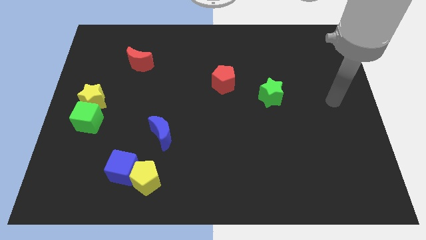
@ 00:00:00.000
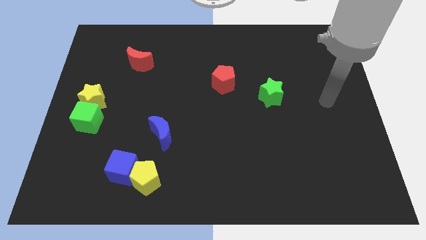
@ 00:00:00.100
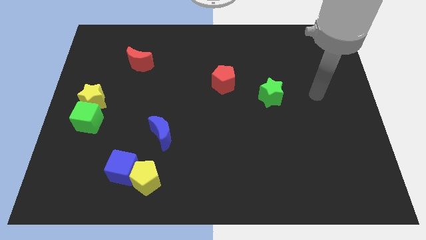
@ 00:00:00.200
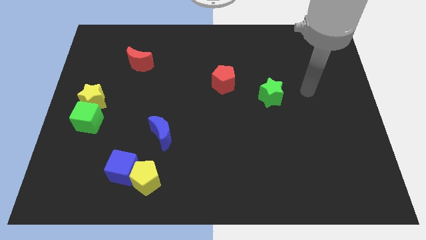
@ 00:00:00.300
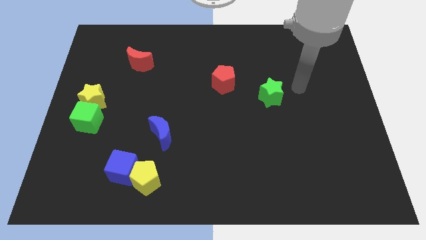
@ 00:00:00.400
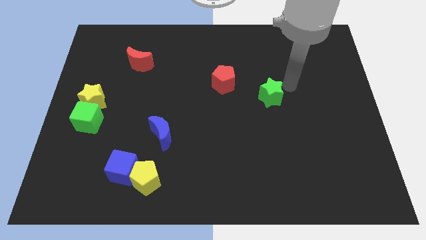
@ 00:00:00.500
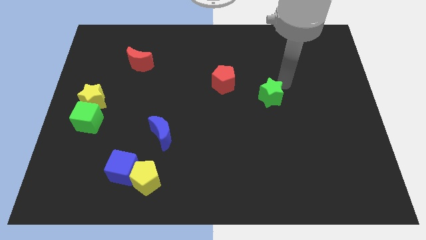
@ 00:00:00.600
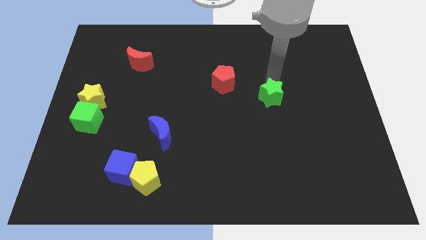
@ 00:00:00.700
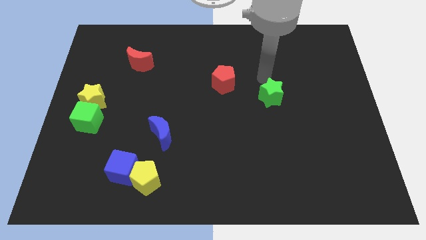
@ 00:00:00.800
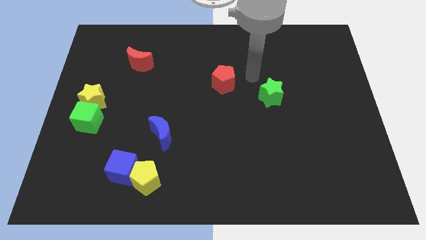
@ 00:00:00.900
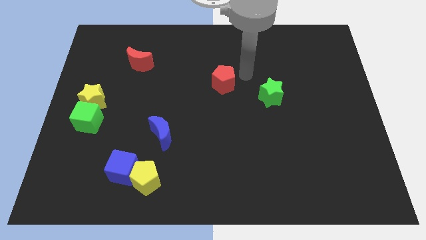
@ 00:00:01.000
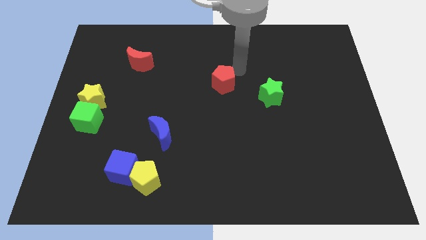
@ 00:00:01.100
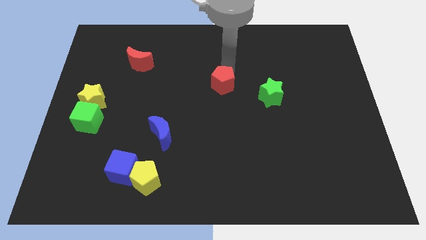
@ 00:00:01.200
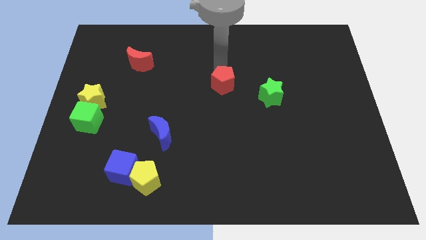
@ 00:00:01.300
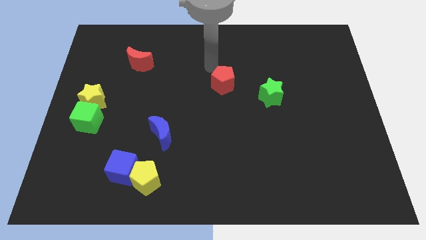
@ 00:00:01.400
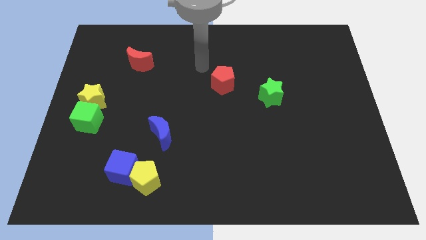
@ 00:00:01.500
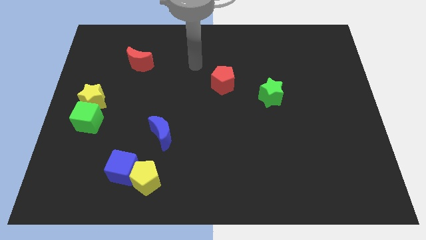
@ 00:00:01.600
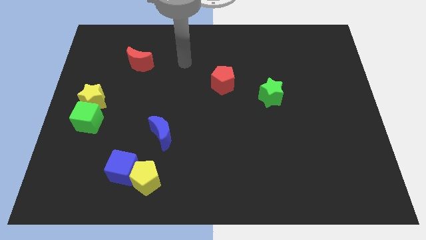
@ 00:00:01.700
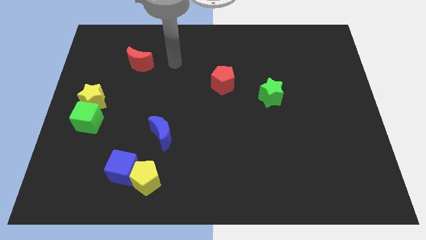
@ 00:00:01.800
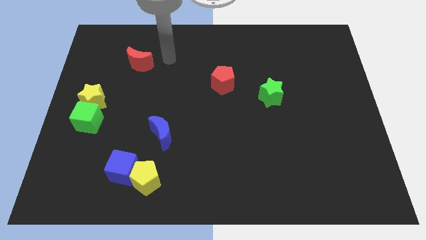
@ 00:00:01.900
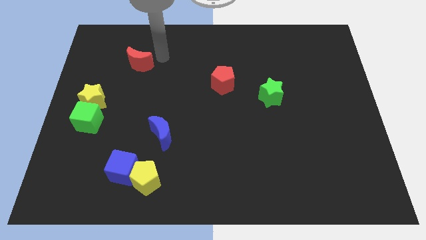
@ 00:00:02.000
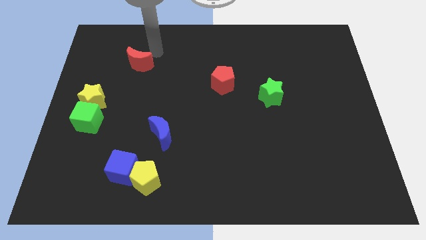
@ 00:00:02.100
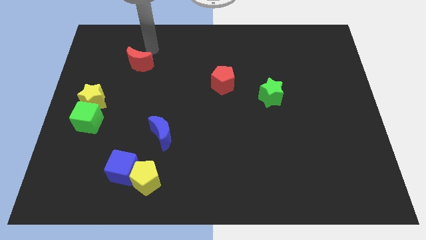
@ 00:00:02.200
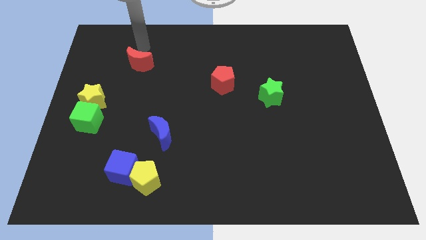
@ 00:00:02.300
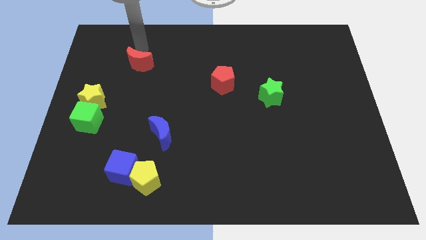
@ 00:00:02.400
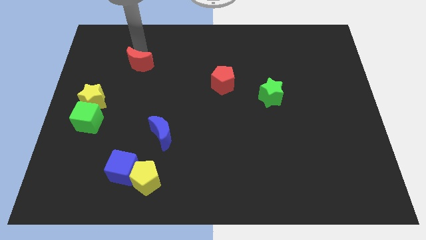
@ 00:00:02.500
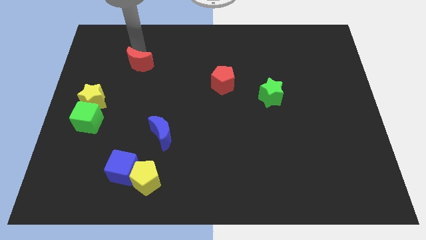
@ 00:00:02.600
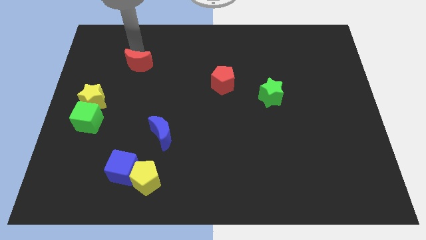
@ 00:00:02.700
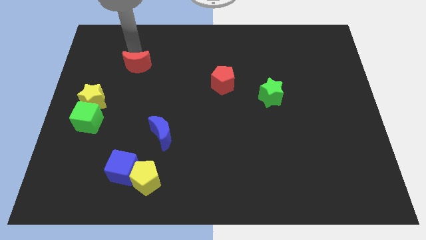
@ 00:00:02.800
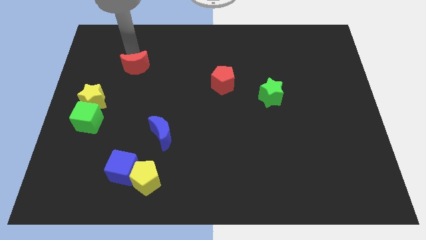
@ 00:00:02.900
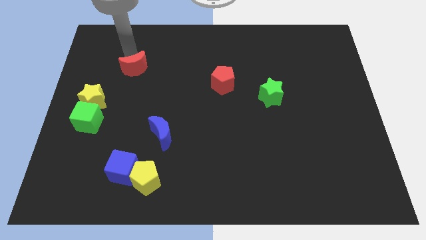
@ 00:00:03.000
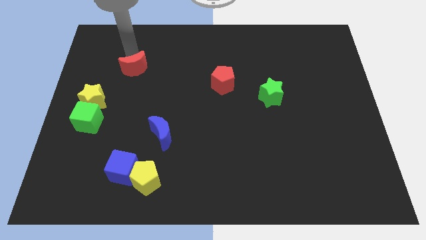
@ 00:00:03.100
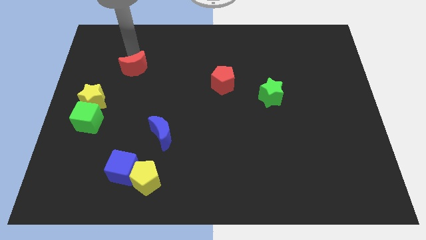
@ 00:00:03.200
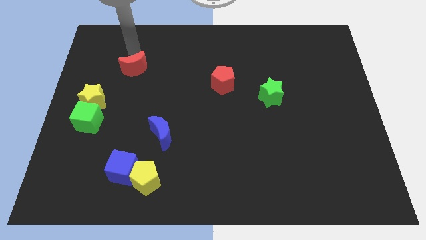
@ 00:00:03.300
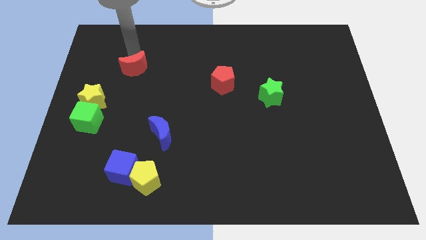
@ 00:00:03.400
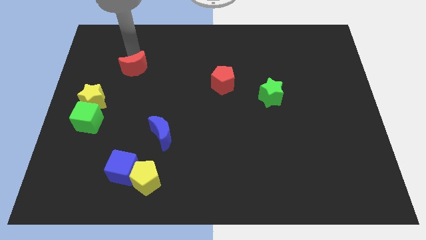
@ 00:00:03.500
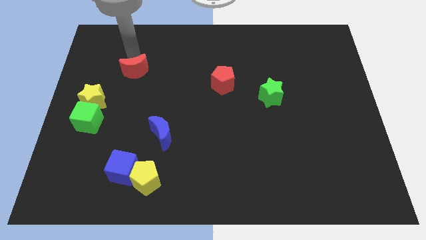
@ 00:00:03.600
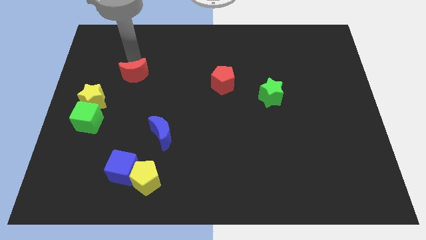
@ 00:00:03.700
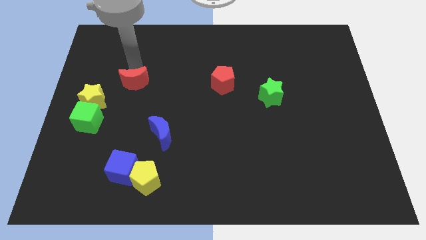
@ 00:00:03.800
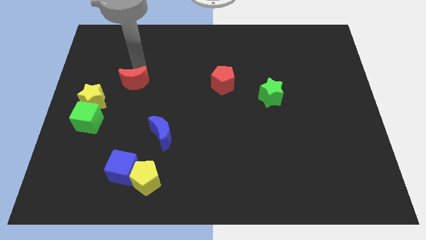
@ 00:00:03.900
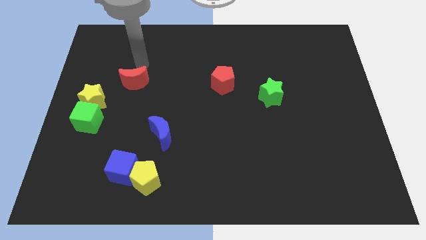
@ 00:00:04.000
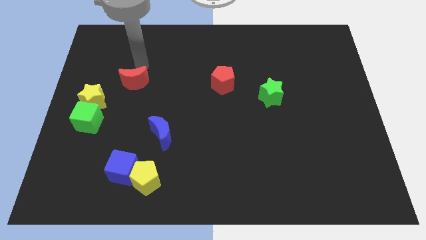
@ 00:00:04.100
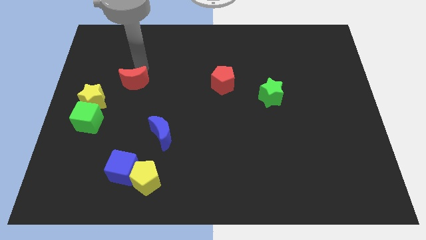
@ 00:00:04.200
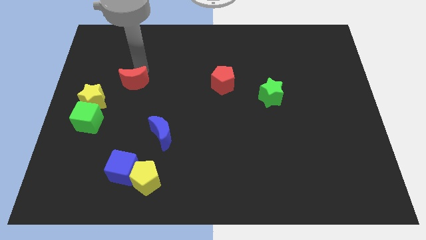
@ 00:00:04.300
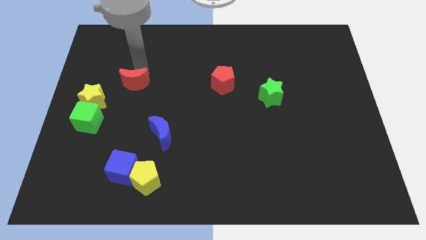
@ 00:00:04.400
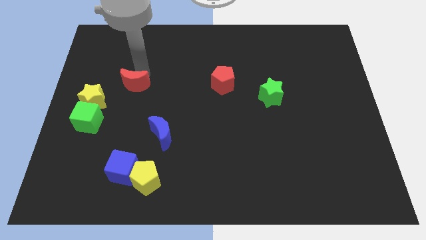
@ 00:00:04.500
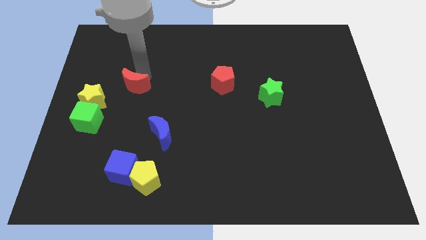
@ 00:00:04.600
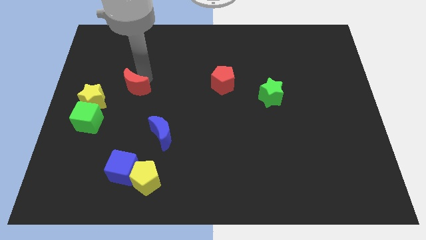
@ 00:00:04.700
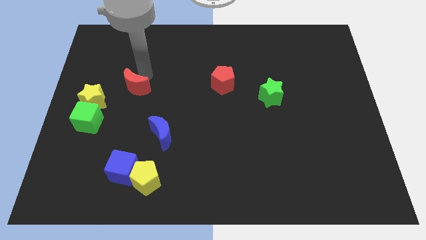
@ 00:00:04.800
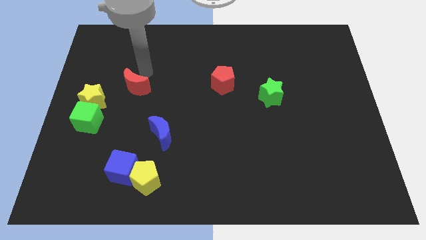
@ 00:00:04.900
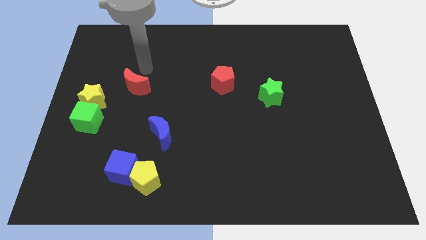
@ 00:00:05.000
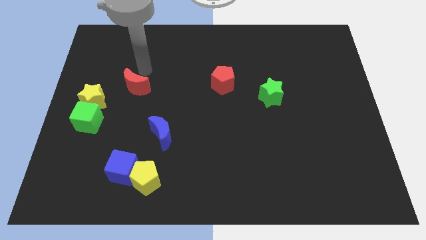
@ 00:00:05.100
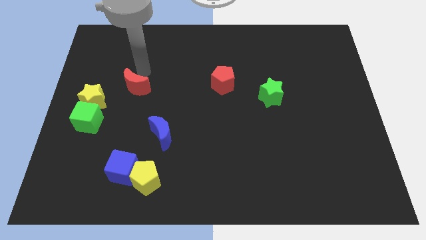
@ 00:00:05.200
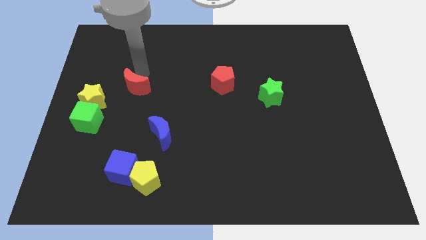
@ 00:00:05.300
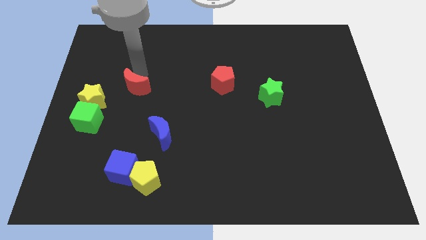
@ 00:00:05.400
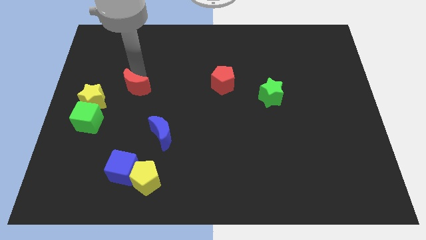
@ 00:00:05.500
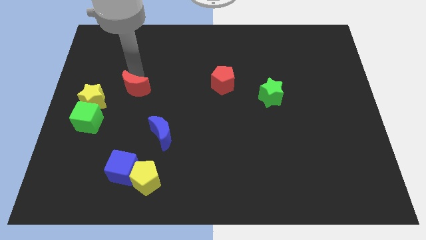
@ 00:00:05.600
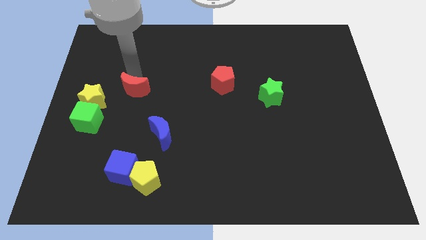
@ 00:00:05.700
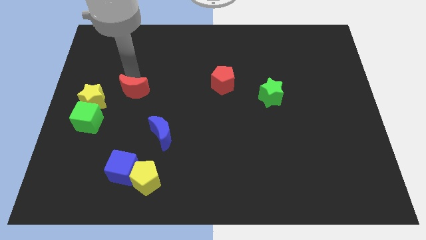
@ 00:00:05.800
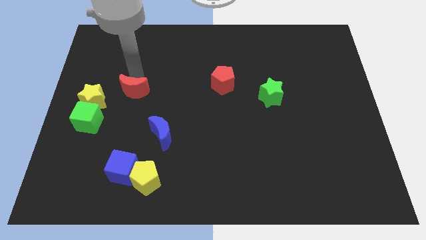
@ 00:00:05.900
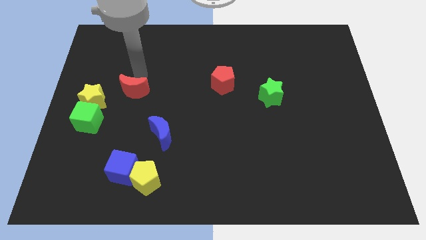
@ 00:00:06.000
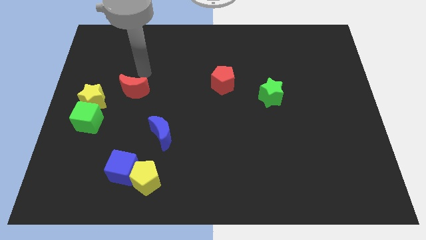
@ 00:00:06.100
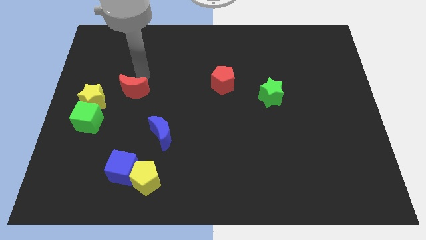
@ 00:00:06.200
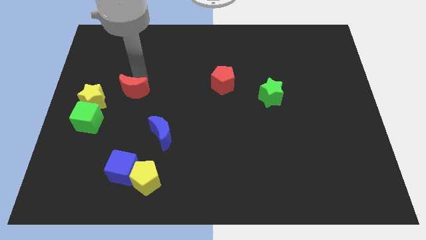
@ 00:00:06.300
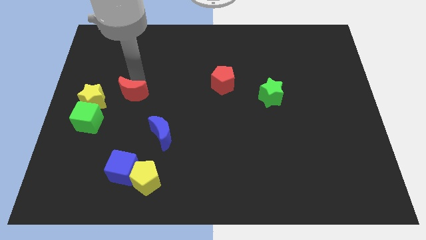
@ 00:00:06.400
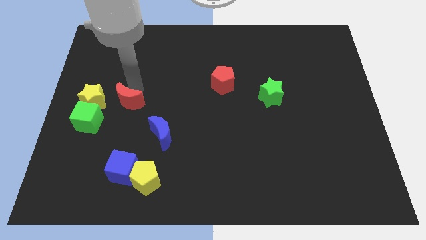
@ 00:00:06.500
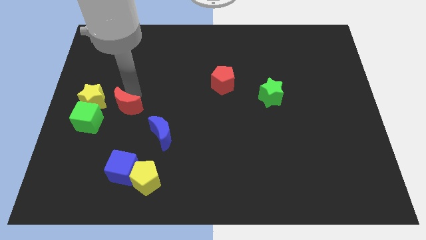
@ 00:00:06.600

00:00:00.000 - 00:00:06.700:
slide the red moon to the bottom right side of the yellow star
